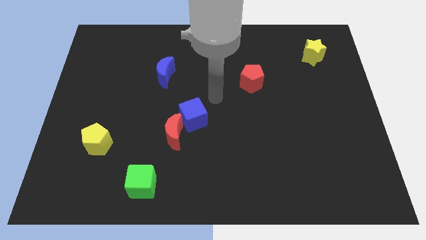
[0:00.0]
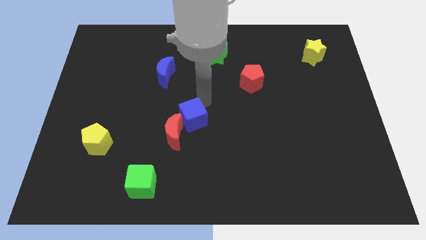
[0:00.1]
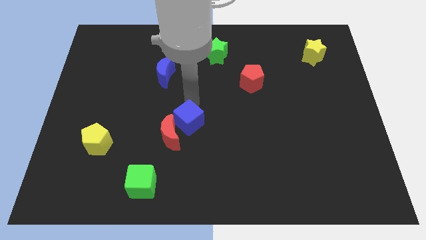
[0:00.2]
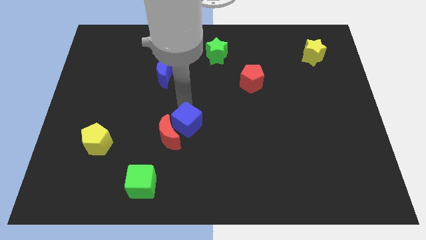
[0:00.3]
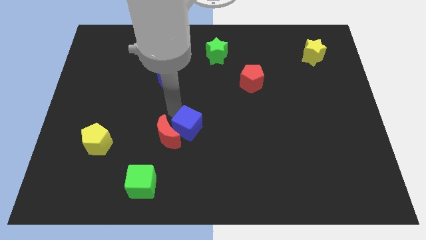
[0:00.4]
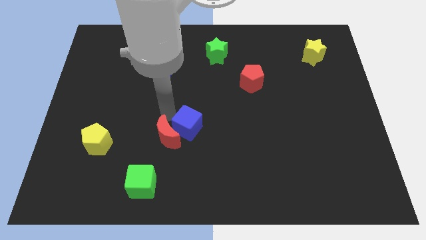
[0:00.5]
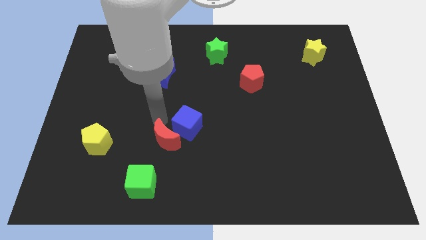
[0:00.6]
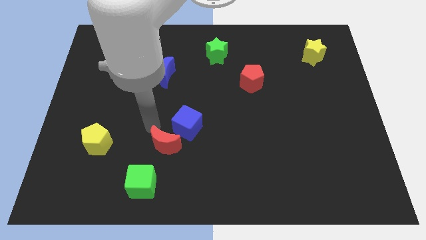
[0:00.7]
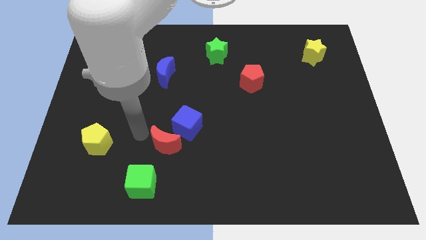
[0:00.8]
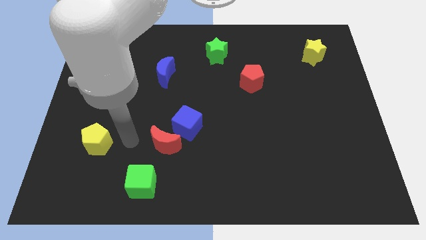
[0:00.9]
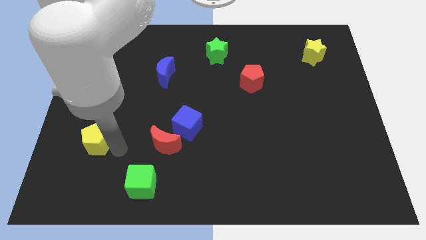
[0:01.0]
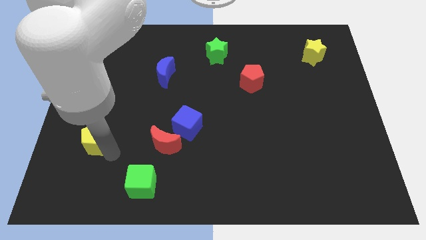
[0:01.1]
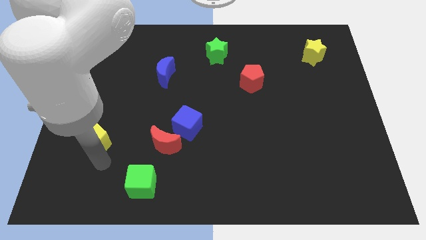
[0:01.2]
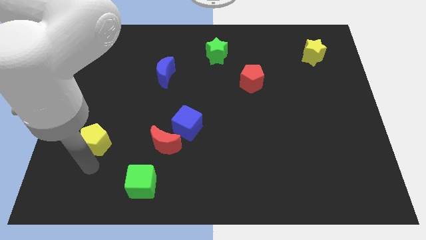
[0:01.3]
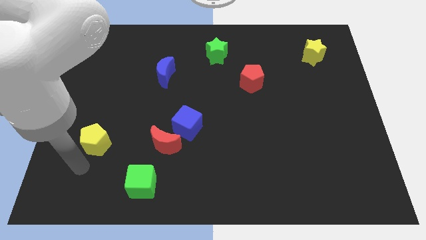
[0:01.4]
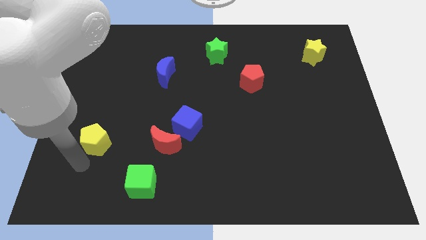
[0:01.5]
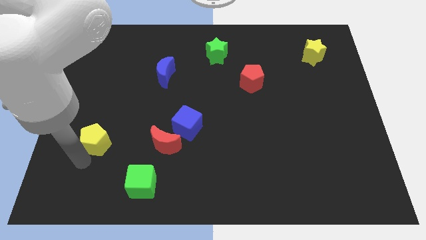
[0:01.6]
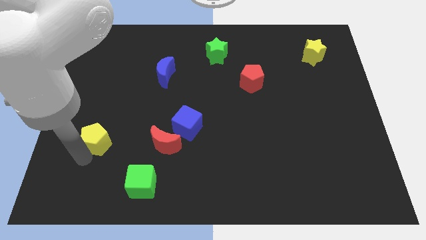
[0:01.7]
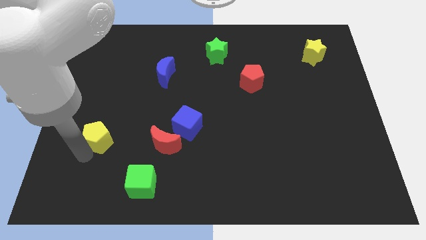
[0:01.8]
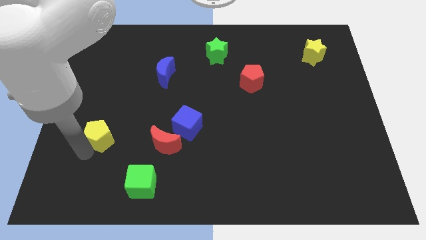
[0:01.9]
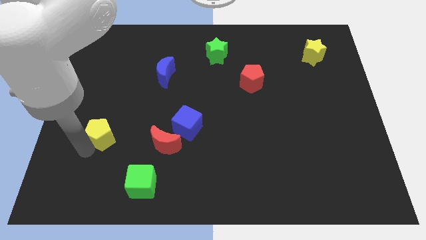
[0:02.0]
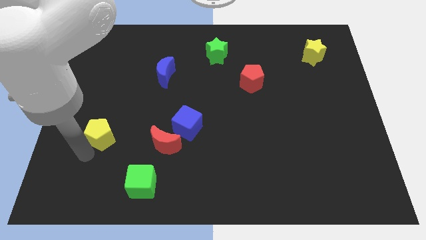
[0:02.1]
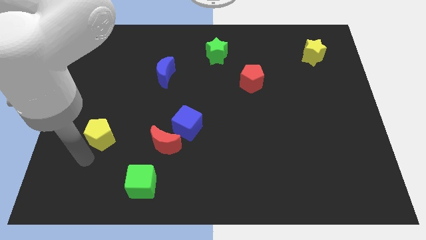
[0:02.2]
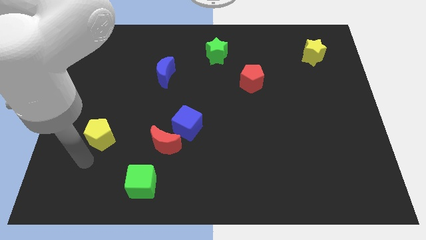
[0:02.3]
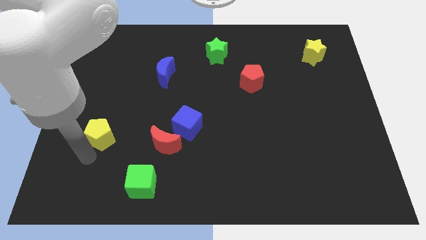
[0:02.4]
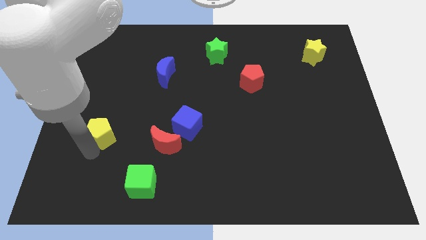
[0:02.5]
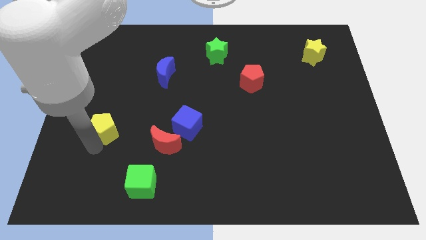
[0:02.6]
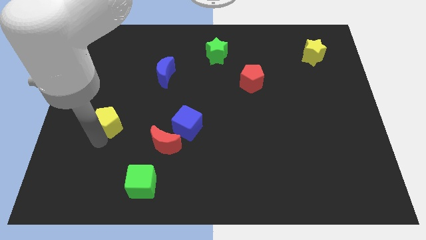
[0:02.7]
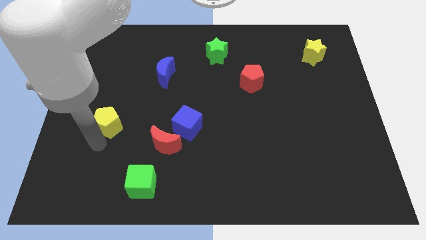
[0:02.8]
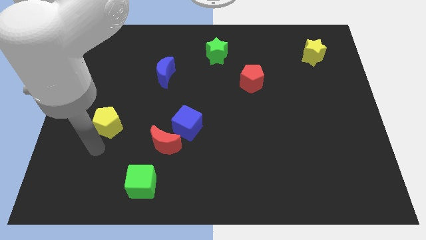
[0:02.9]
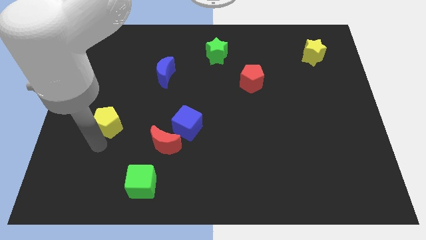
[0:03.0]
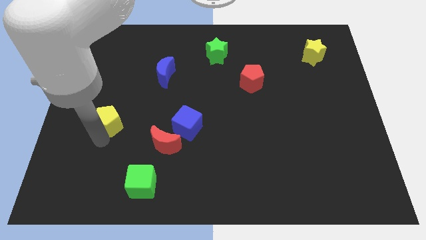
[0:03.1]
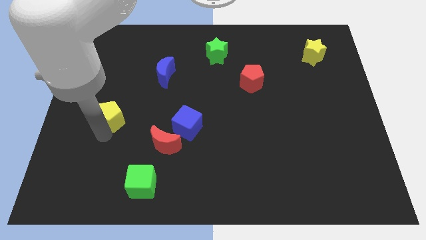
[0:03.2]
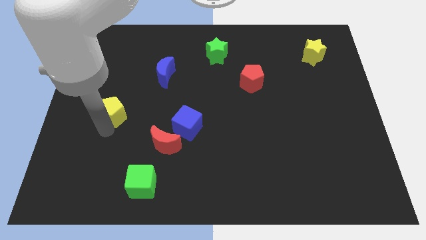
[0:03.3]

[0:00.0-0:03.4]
push the yellow pentagon up somewhat

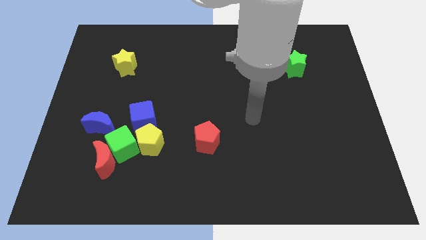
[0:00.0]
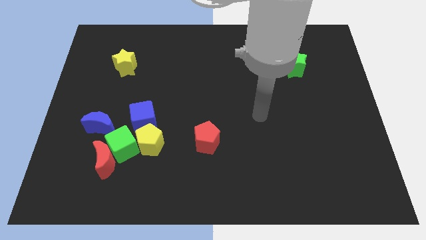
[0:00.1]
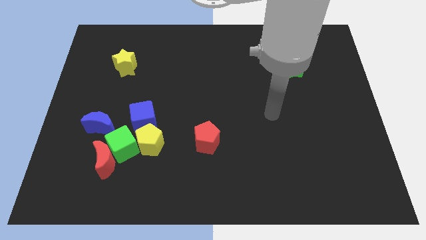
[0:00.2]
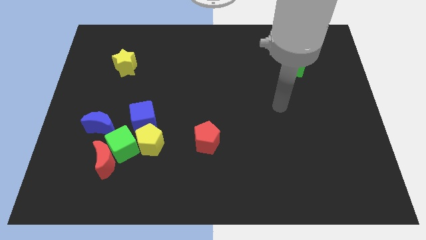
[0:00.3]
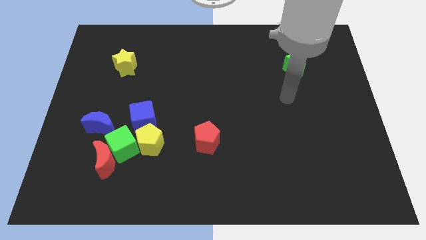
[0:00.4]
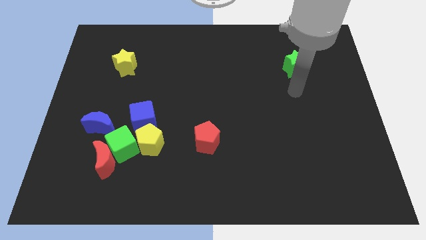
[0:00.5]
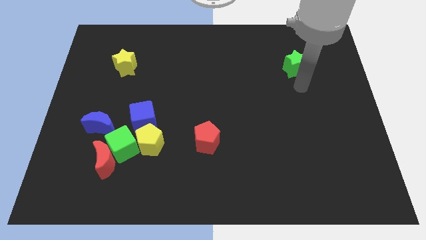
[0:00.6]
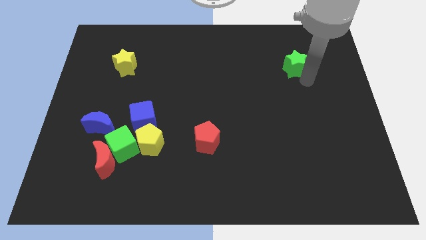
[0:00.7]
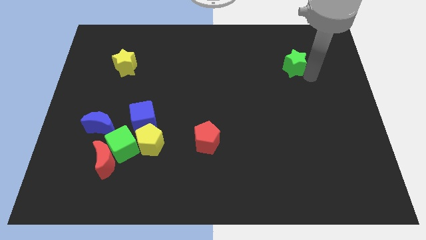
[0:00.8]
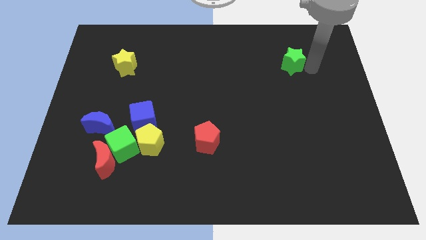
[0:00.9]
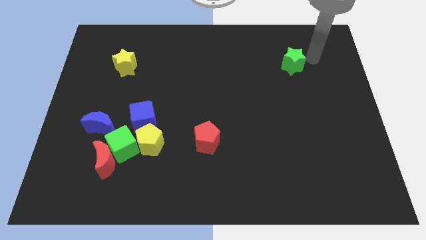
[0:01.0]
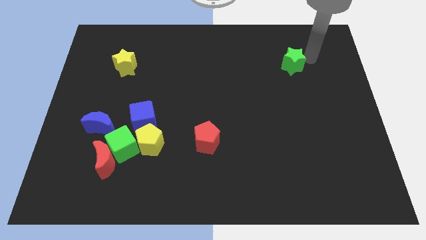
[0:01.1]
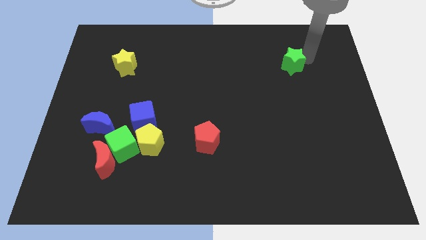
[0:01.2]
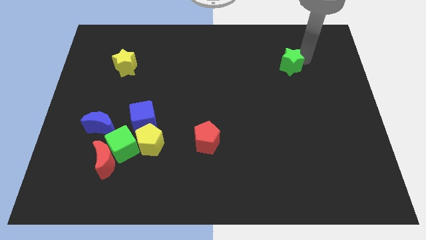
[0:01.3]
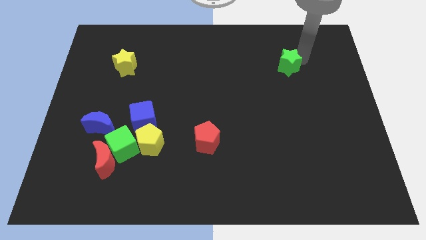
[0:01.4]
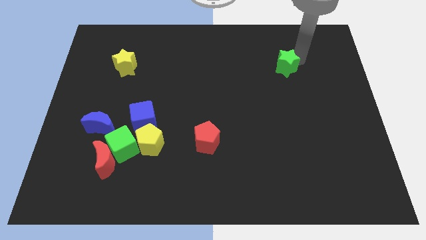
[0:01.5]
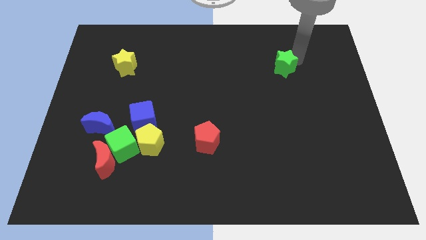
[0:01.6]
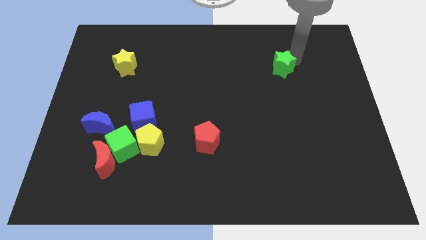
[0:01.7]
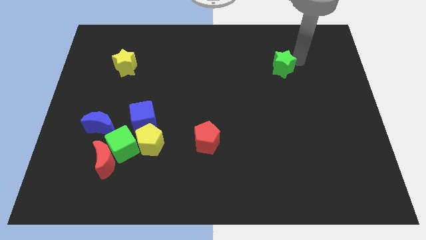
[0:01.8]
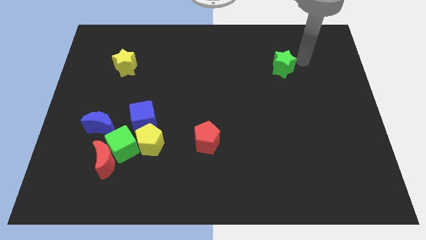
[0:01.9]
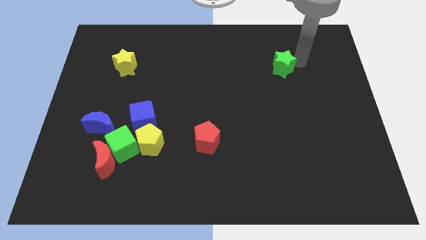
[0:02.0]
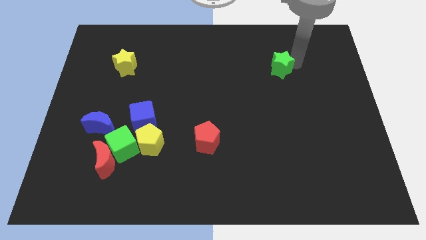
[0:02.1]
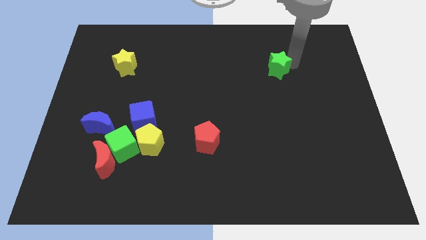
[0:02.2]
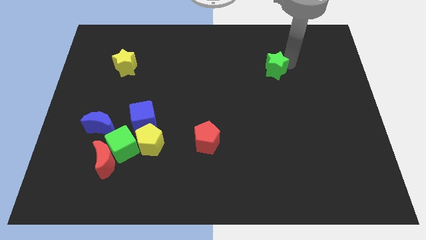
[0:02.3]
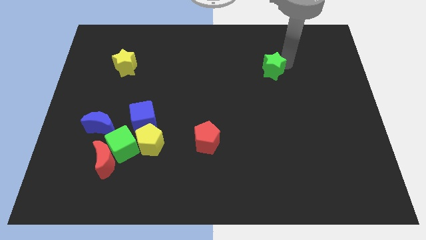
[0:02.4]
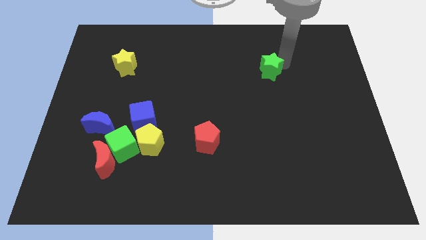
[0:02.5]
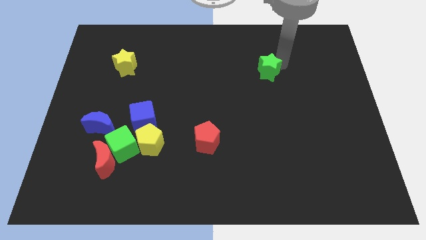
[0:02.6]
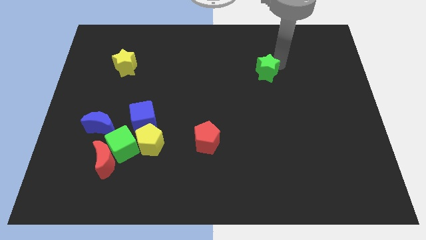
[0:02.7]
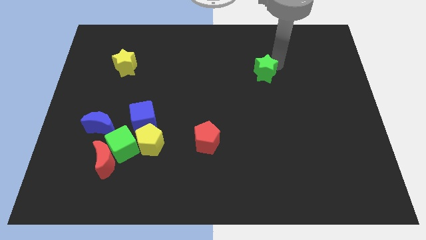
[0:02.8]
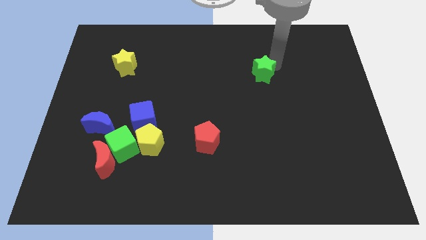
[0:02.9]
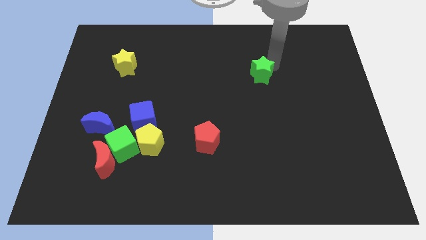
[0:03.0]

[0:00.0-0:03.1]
slightly move the green star downwards and left

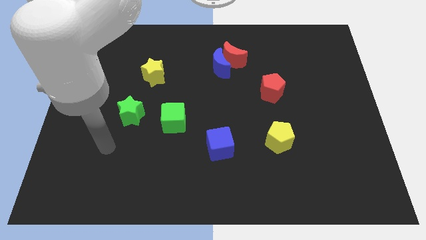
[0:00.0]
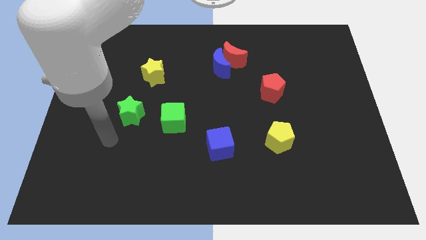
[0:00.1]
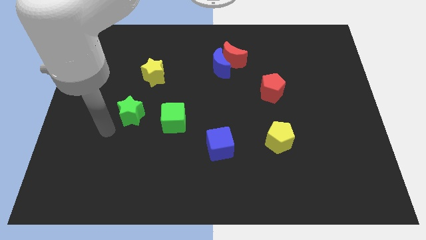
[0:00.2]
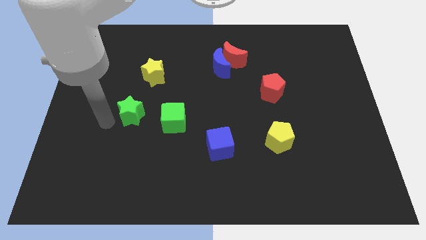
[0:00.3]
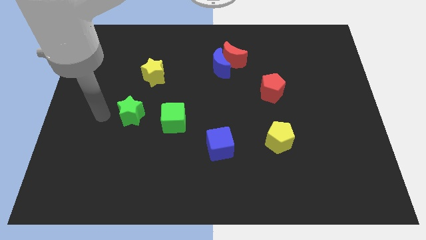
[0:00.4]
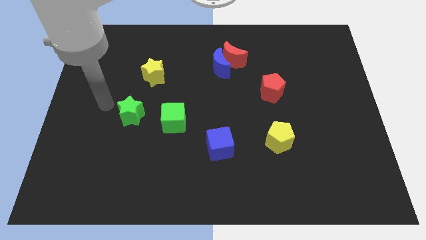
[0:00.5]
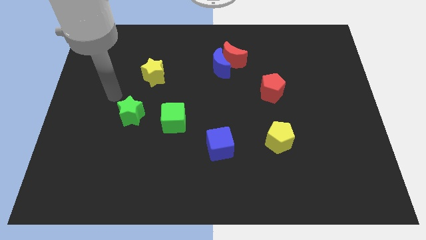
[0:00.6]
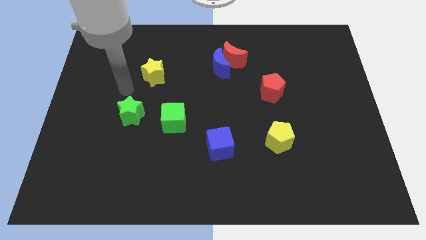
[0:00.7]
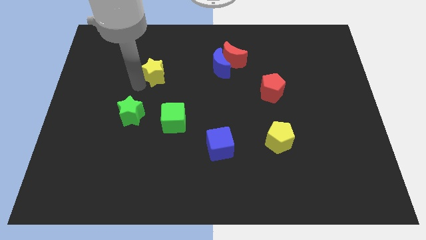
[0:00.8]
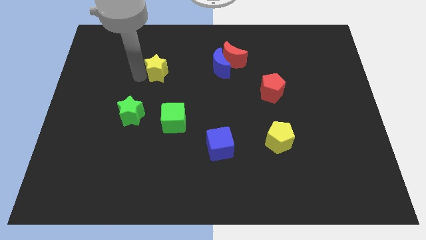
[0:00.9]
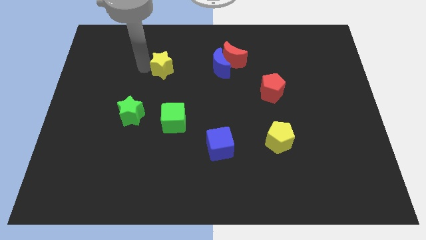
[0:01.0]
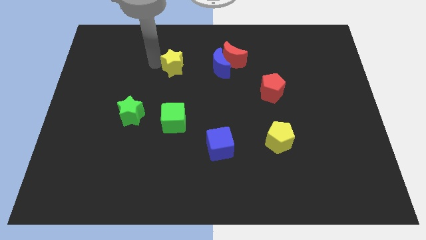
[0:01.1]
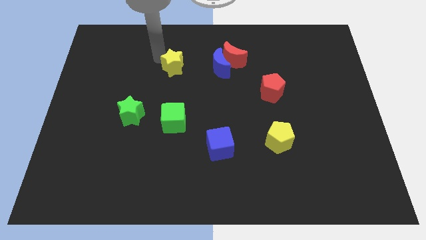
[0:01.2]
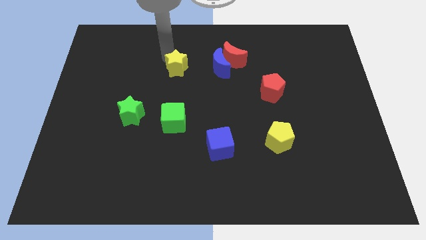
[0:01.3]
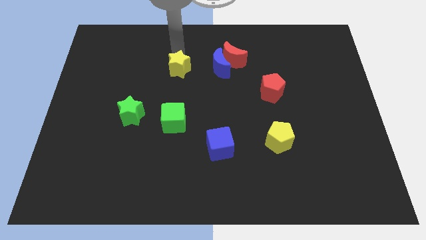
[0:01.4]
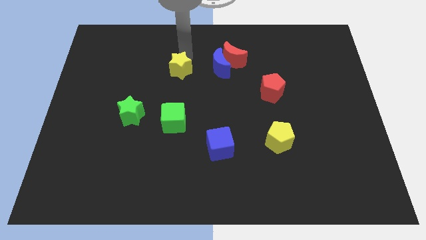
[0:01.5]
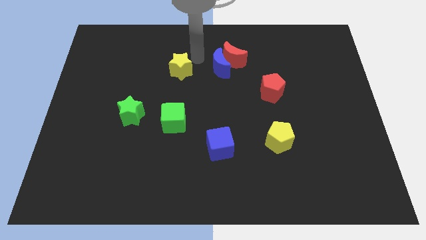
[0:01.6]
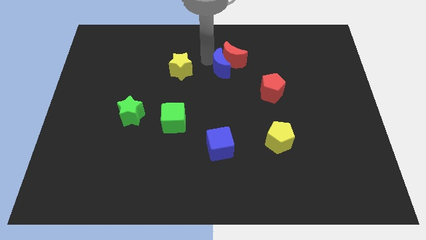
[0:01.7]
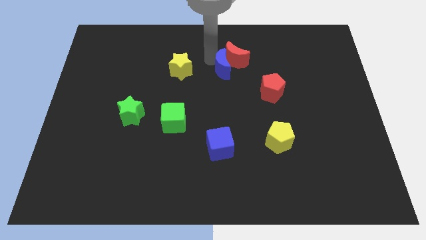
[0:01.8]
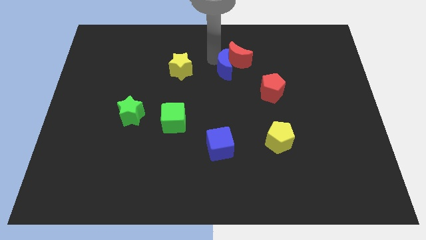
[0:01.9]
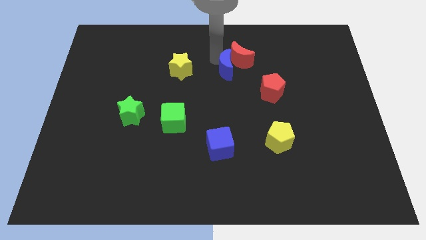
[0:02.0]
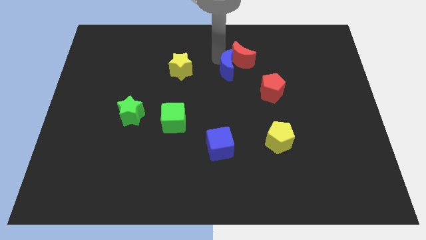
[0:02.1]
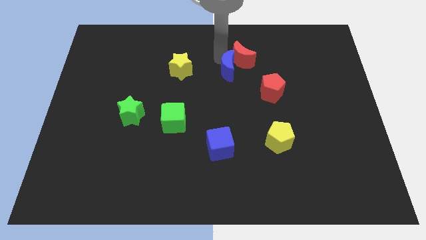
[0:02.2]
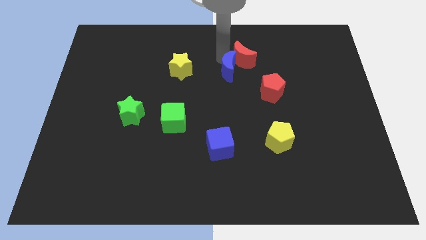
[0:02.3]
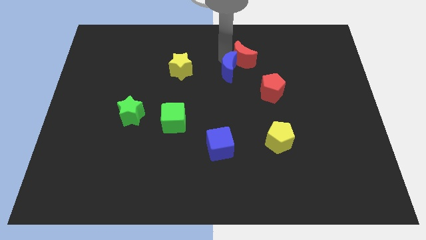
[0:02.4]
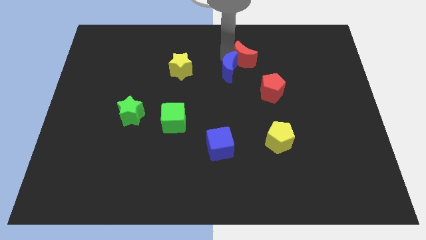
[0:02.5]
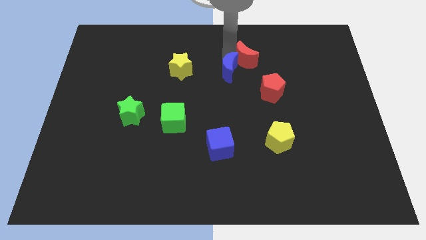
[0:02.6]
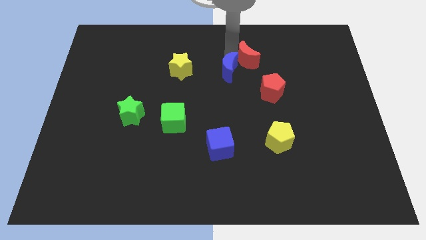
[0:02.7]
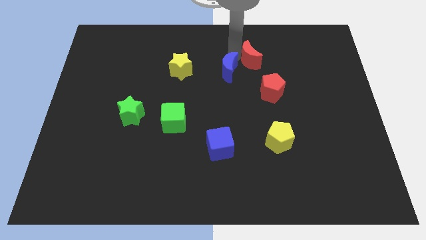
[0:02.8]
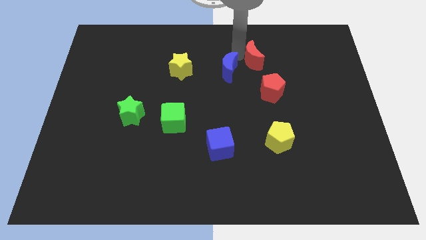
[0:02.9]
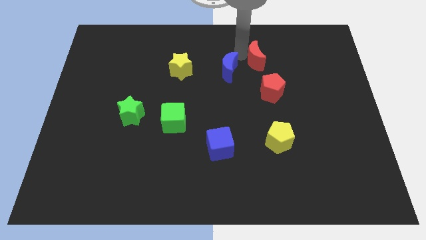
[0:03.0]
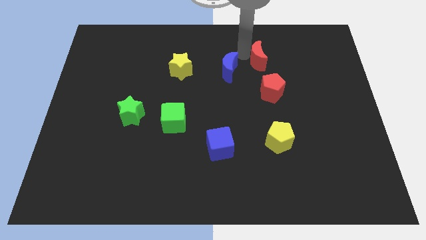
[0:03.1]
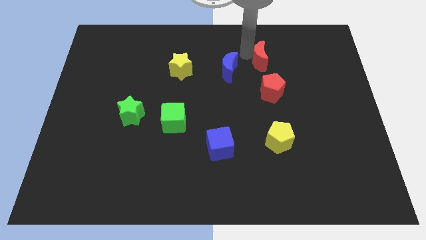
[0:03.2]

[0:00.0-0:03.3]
push the red moon to the right a bit
